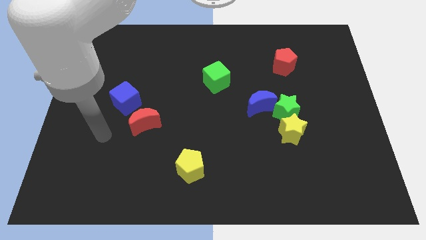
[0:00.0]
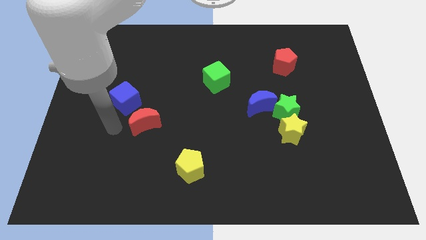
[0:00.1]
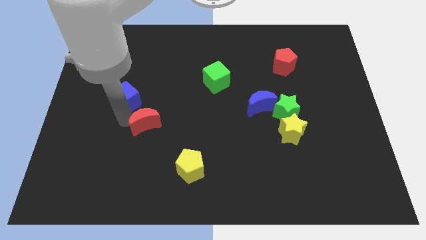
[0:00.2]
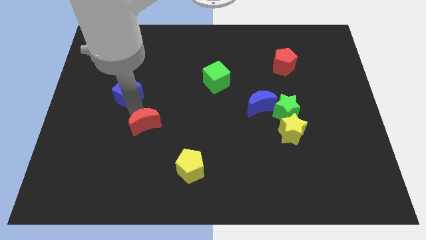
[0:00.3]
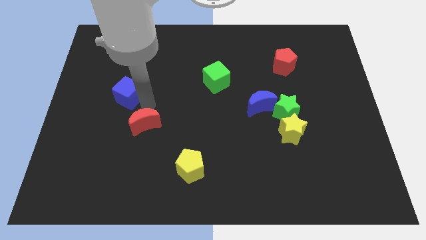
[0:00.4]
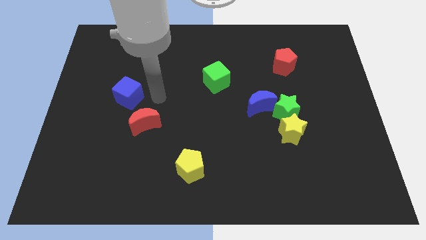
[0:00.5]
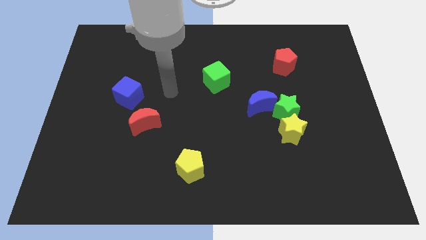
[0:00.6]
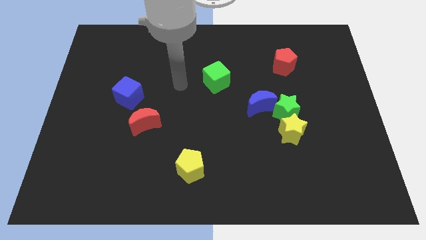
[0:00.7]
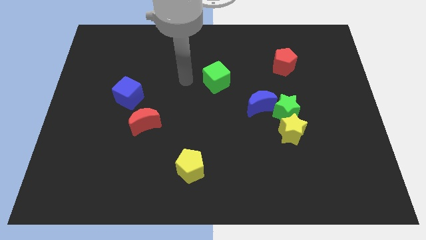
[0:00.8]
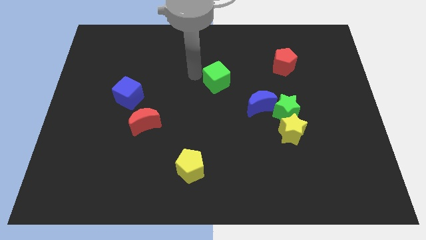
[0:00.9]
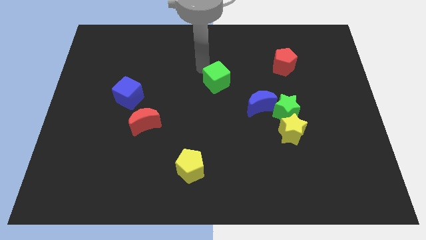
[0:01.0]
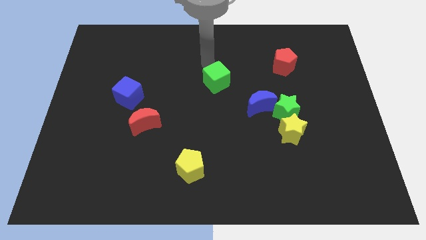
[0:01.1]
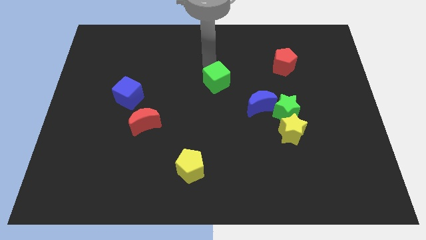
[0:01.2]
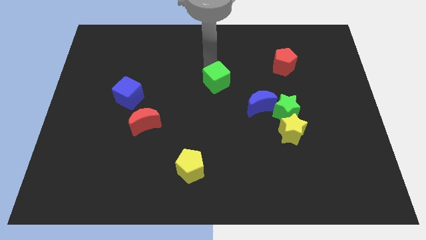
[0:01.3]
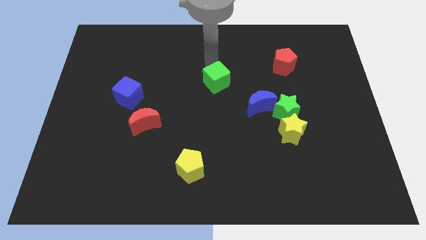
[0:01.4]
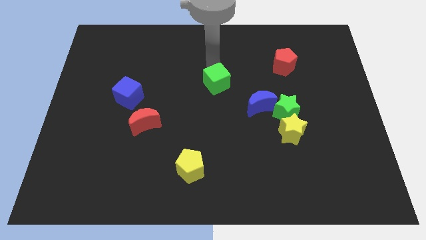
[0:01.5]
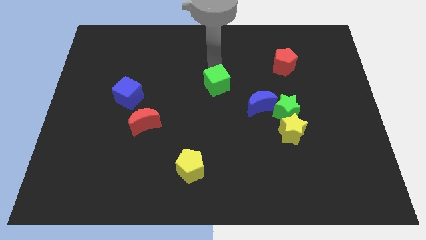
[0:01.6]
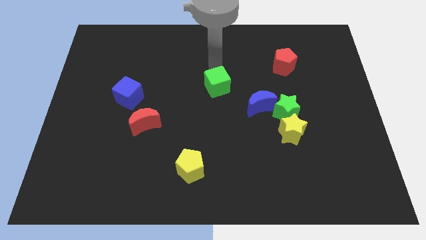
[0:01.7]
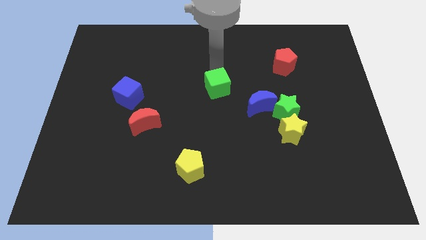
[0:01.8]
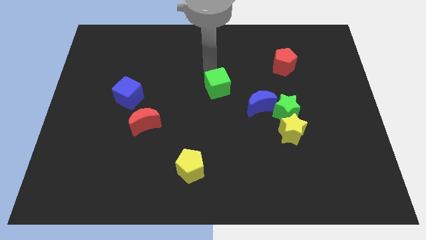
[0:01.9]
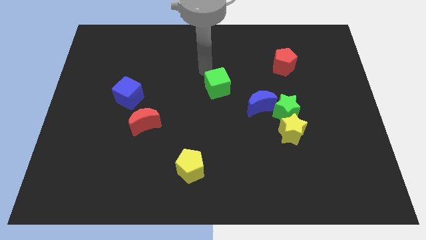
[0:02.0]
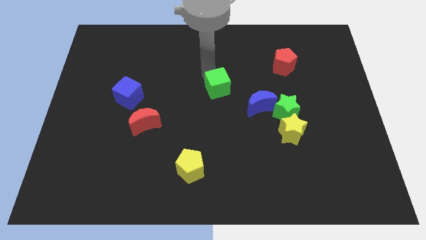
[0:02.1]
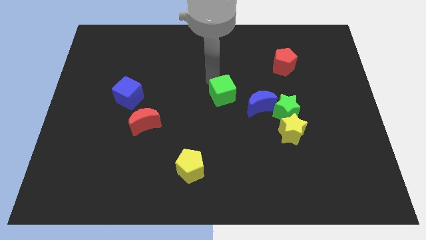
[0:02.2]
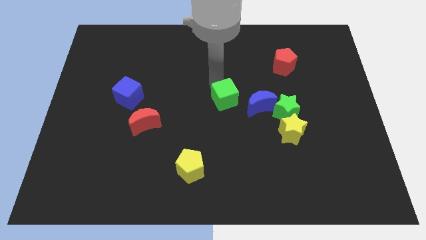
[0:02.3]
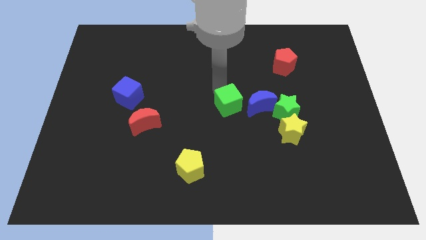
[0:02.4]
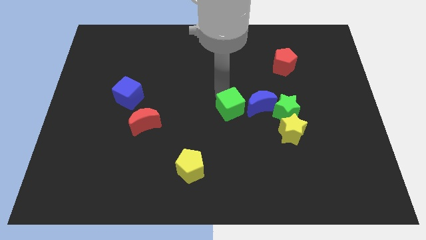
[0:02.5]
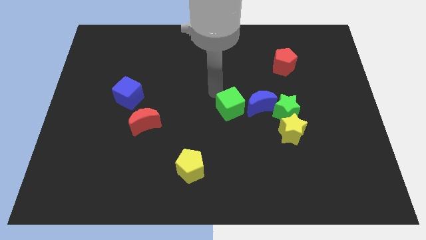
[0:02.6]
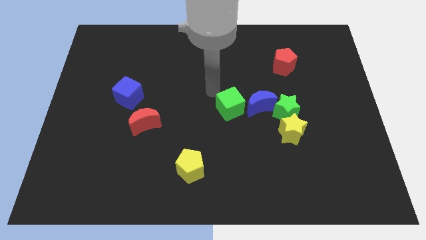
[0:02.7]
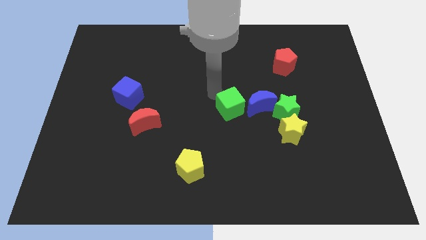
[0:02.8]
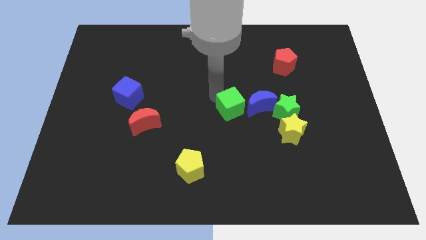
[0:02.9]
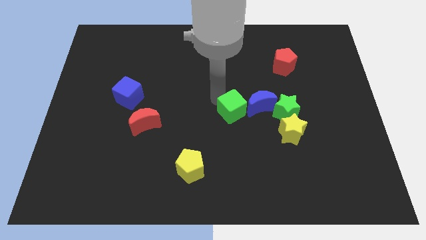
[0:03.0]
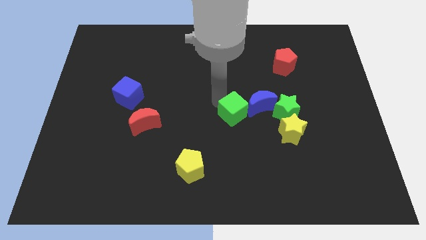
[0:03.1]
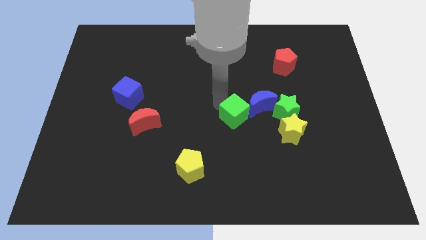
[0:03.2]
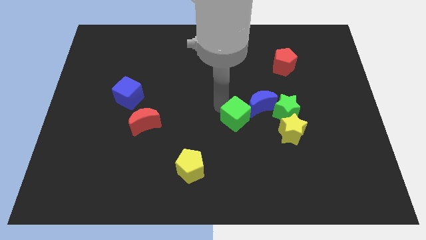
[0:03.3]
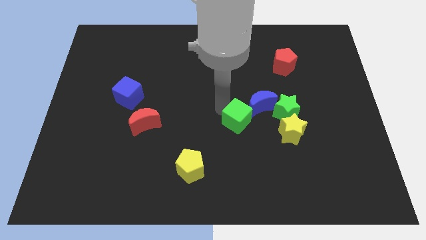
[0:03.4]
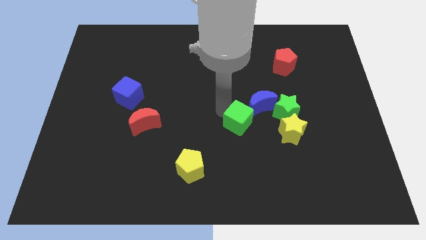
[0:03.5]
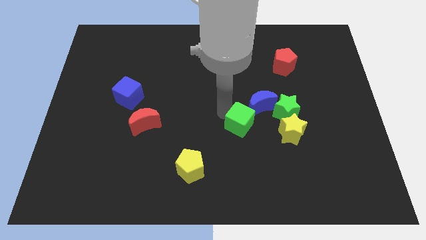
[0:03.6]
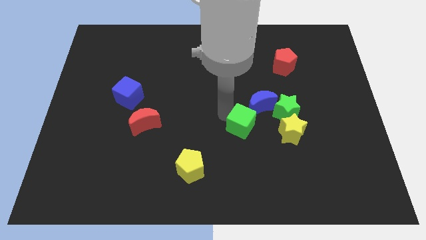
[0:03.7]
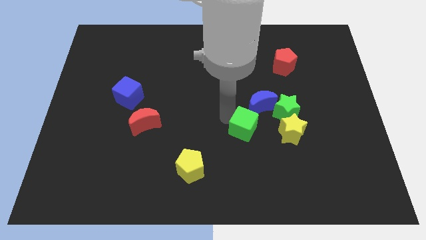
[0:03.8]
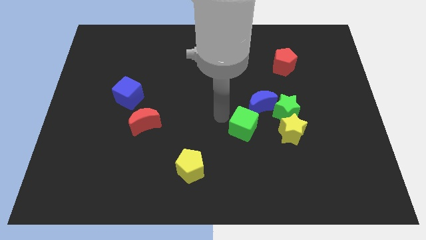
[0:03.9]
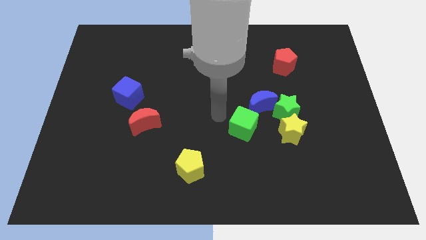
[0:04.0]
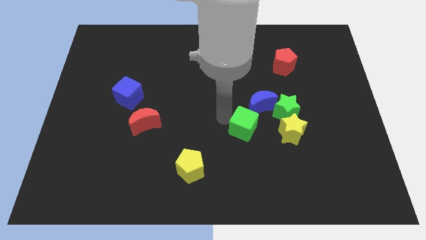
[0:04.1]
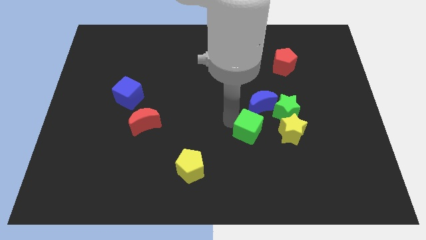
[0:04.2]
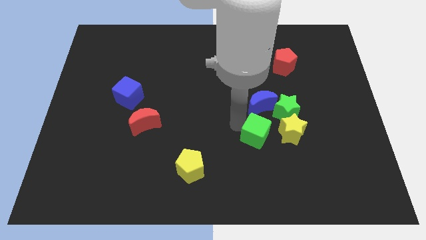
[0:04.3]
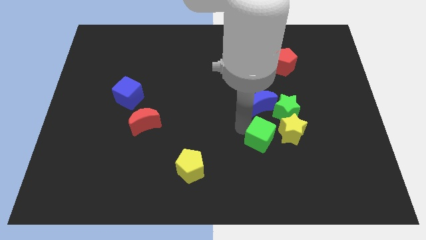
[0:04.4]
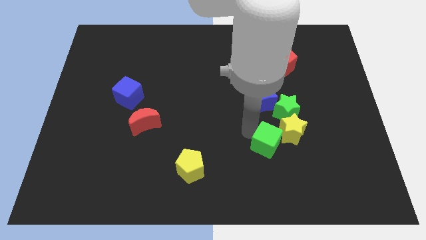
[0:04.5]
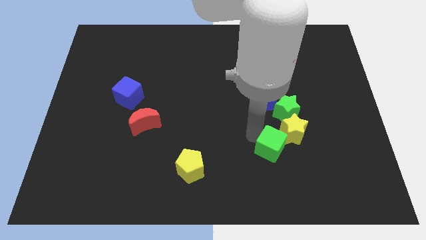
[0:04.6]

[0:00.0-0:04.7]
move the green cube down and right diagonally

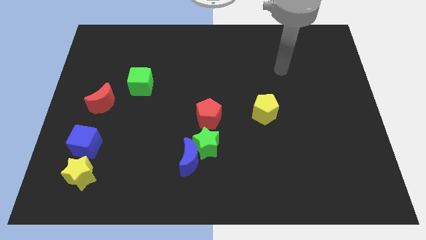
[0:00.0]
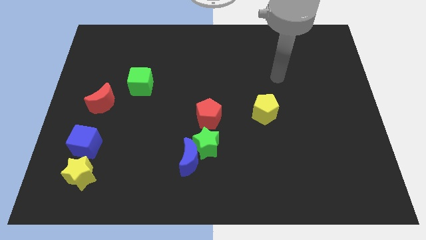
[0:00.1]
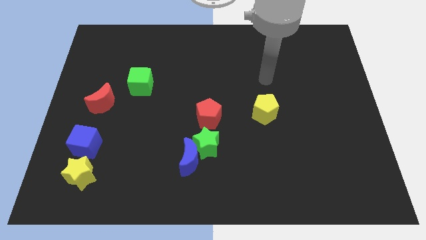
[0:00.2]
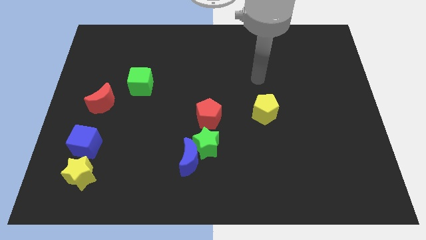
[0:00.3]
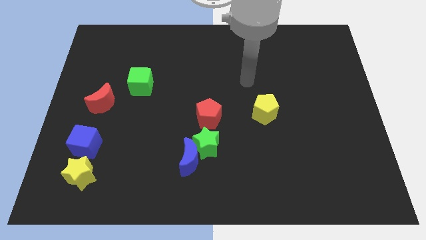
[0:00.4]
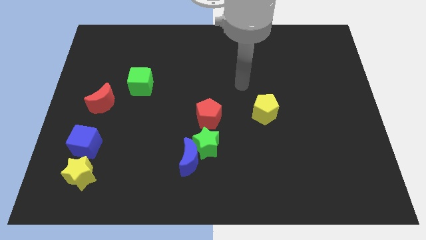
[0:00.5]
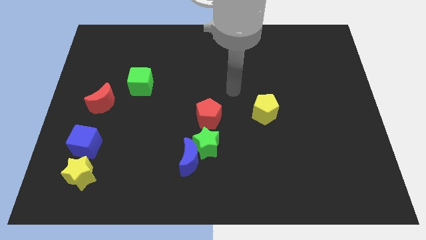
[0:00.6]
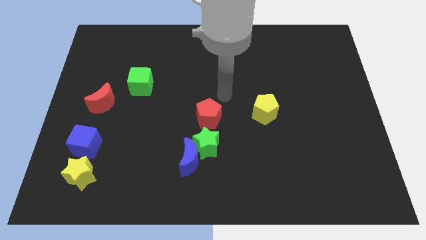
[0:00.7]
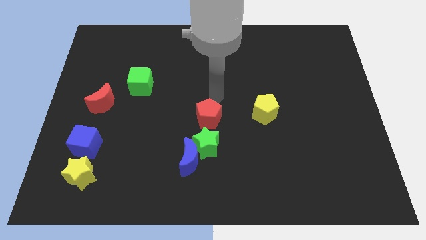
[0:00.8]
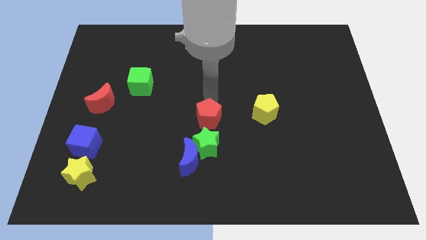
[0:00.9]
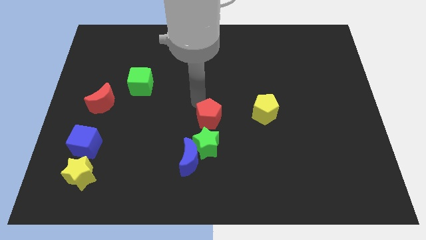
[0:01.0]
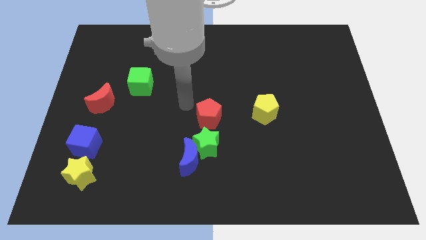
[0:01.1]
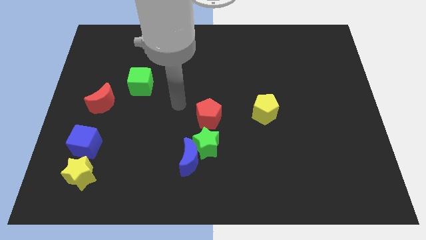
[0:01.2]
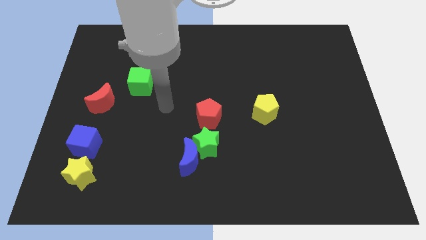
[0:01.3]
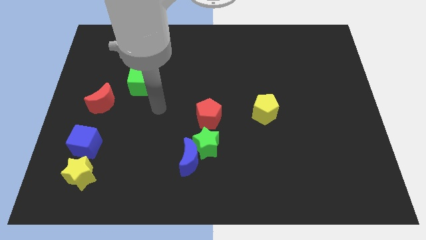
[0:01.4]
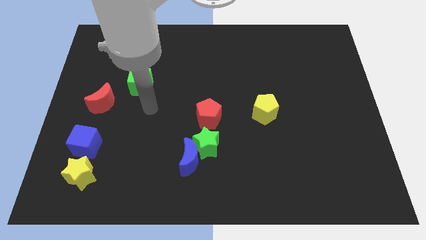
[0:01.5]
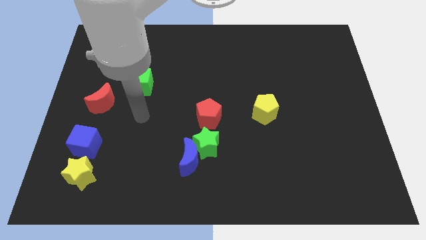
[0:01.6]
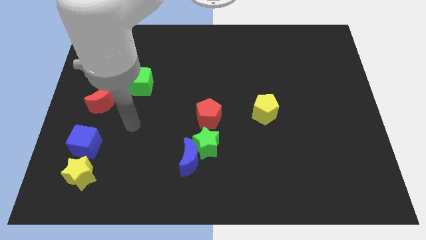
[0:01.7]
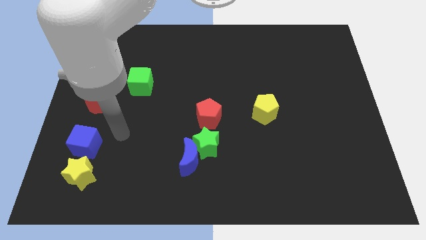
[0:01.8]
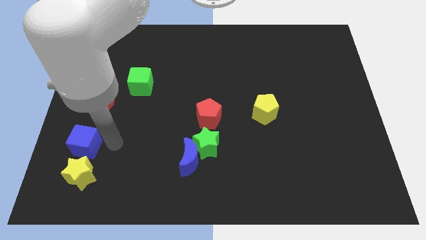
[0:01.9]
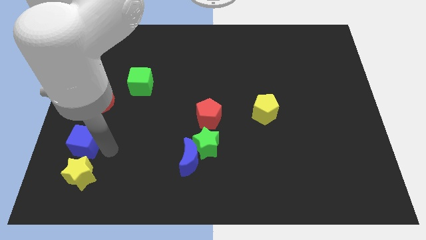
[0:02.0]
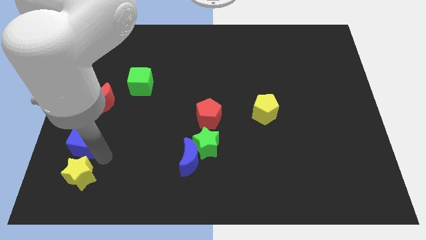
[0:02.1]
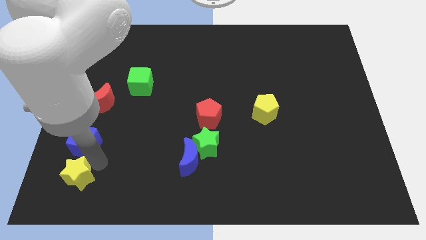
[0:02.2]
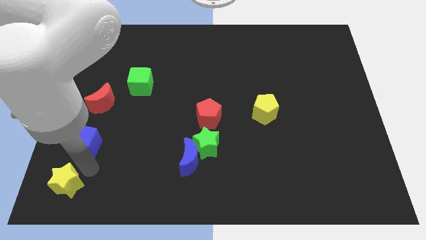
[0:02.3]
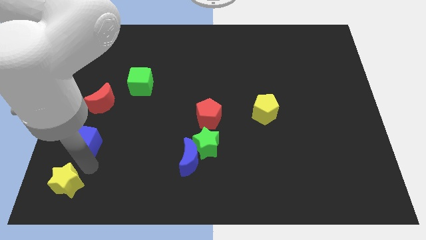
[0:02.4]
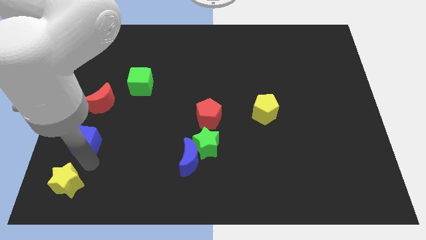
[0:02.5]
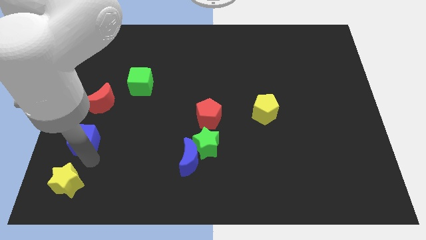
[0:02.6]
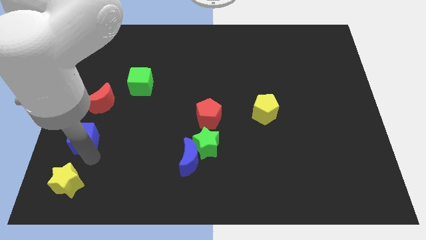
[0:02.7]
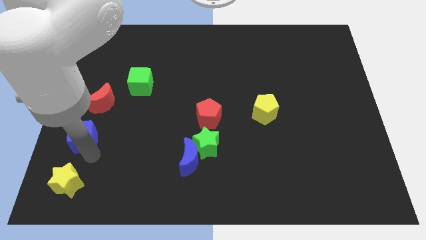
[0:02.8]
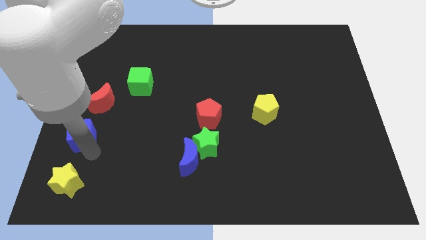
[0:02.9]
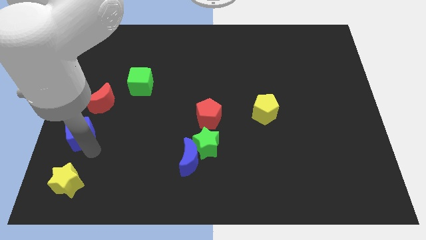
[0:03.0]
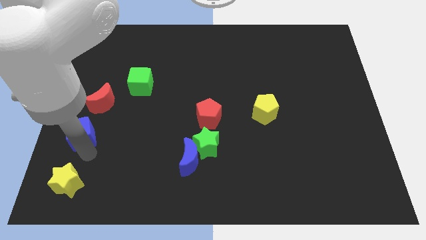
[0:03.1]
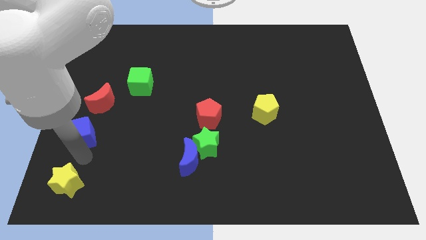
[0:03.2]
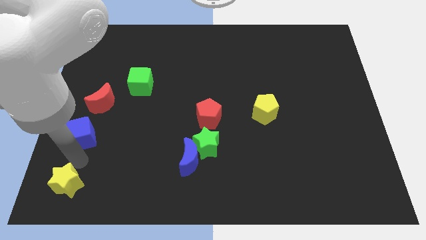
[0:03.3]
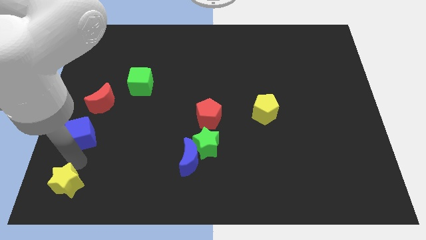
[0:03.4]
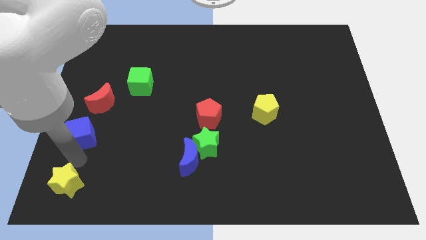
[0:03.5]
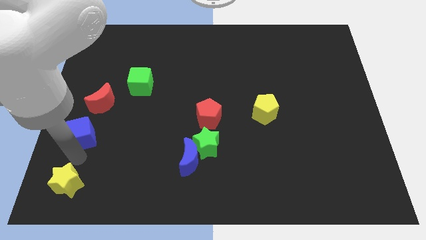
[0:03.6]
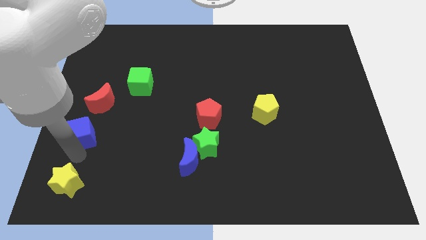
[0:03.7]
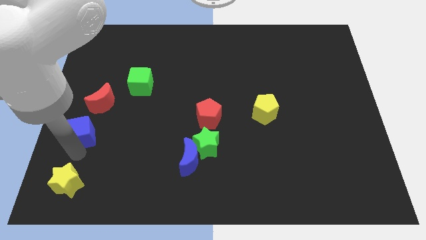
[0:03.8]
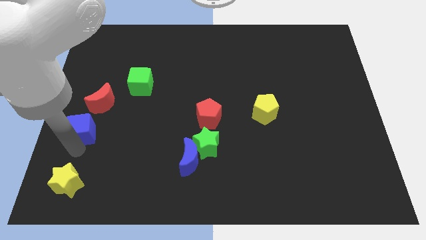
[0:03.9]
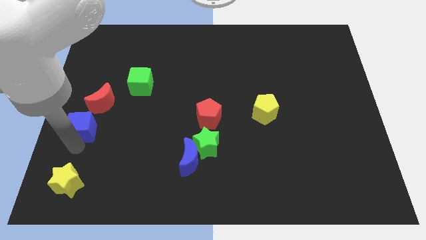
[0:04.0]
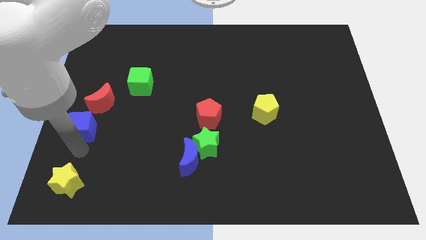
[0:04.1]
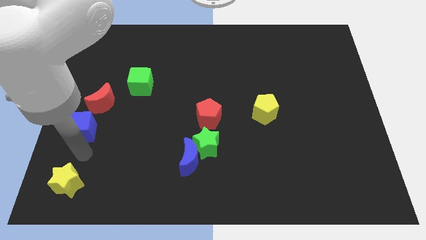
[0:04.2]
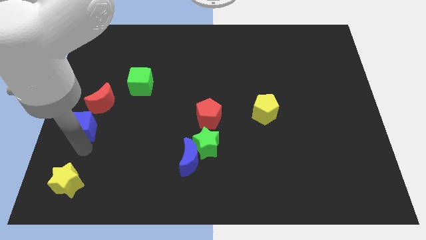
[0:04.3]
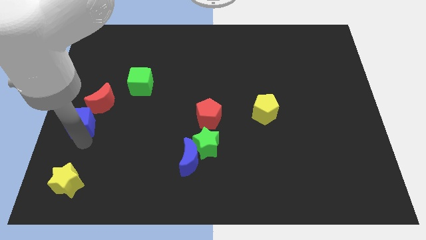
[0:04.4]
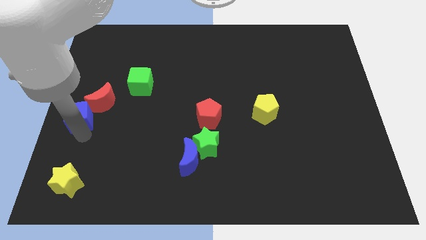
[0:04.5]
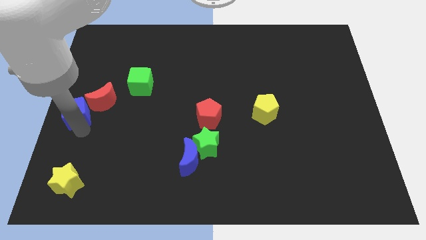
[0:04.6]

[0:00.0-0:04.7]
slightly move the blue cube upwards
